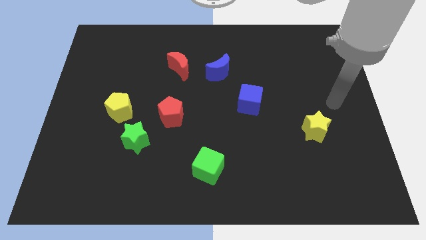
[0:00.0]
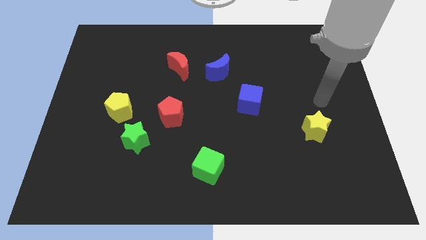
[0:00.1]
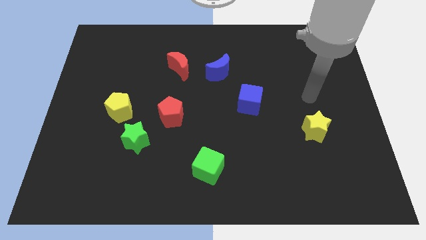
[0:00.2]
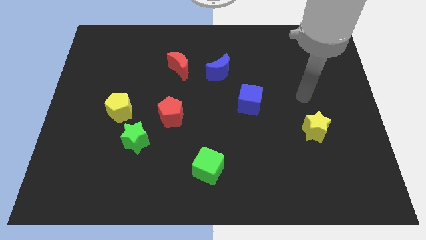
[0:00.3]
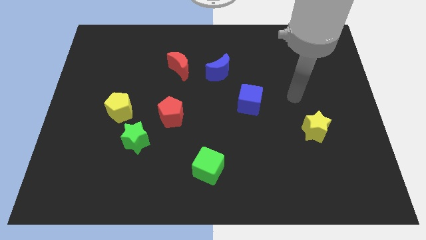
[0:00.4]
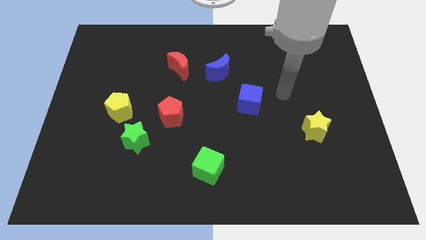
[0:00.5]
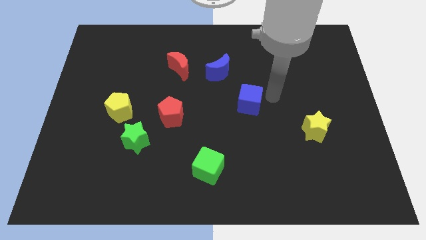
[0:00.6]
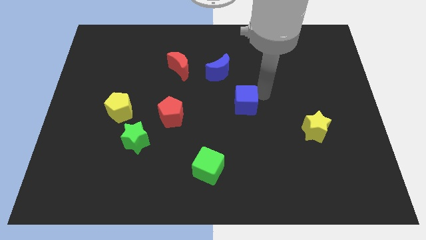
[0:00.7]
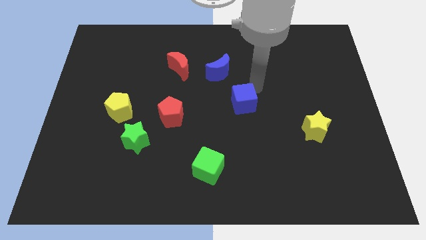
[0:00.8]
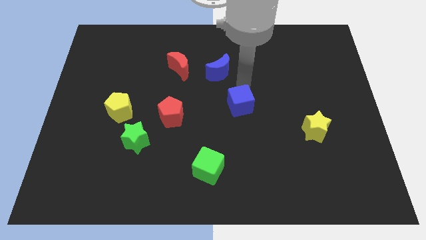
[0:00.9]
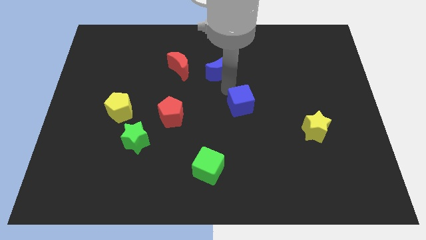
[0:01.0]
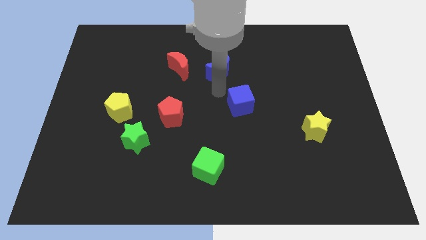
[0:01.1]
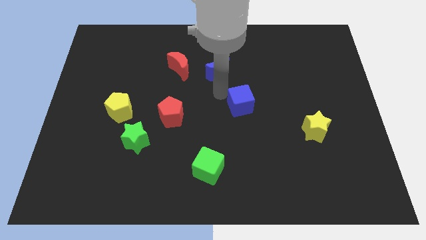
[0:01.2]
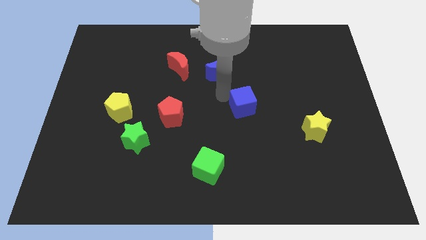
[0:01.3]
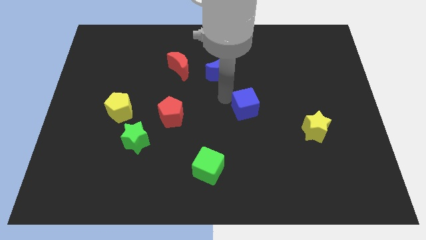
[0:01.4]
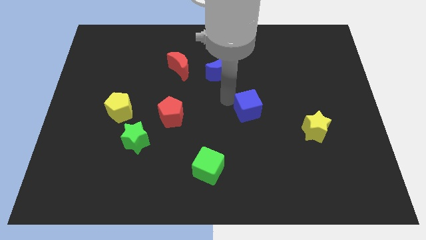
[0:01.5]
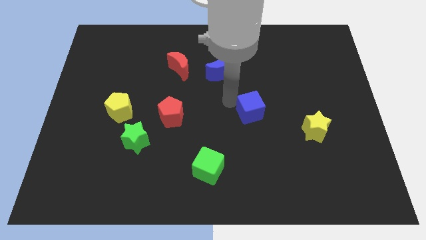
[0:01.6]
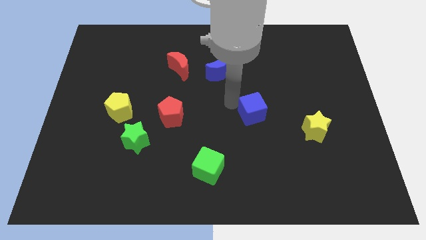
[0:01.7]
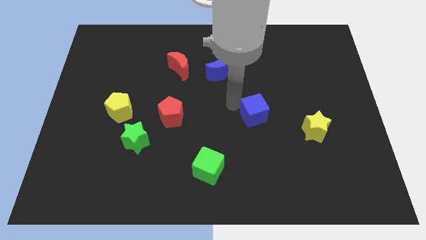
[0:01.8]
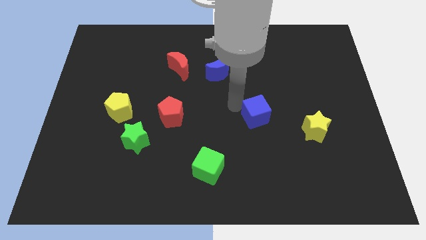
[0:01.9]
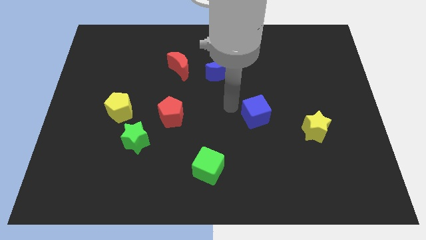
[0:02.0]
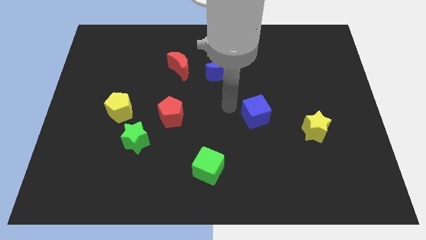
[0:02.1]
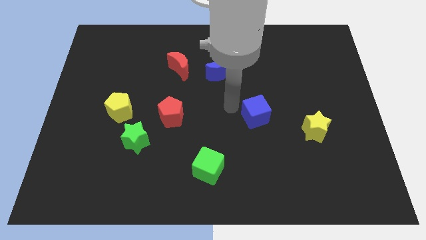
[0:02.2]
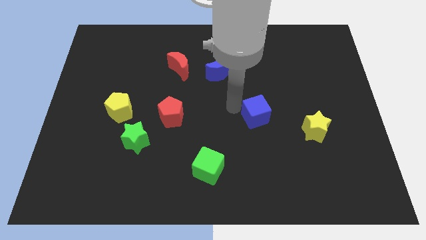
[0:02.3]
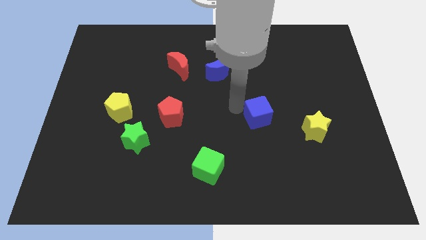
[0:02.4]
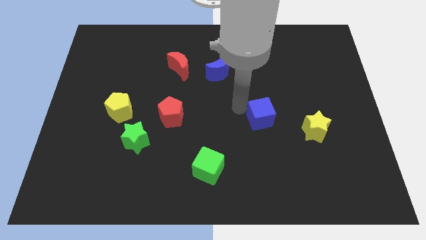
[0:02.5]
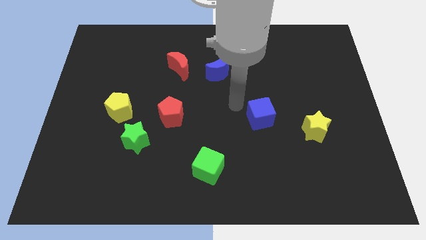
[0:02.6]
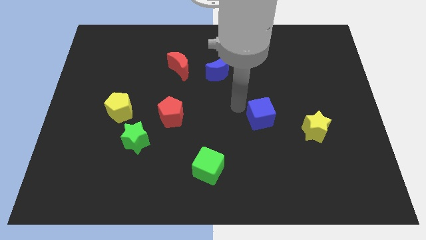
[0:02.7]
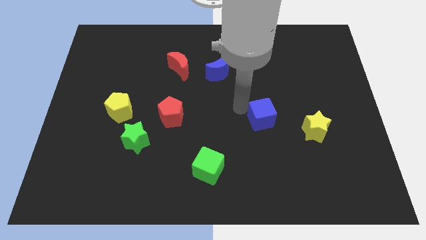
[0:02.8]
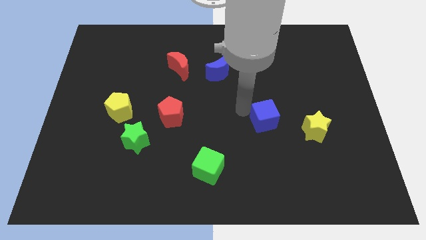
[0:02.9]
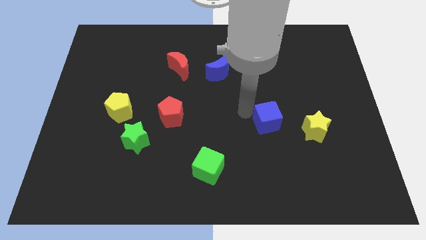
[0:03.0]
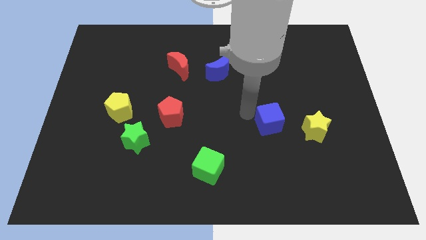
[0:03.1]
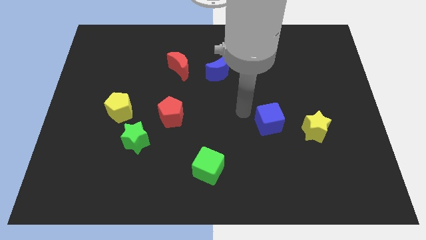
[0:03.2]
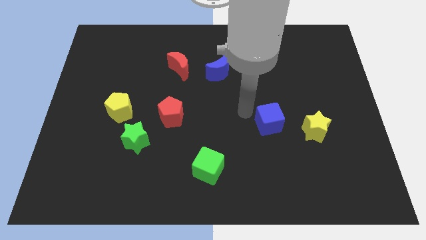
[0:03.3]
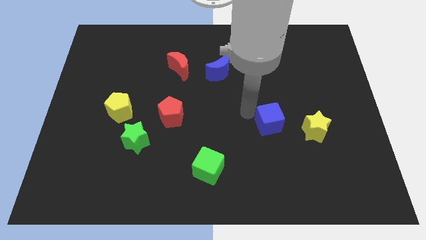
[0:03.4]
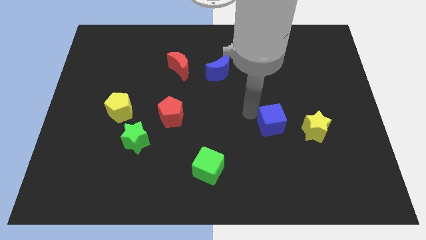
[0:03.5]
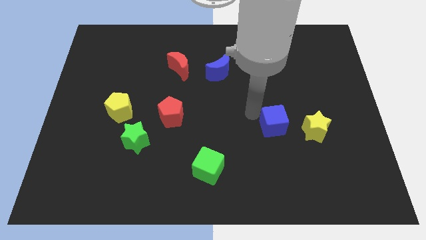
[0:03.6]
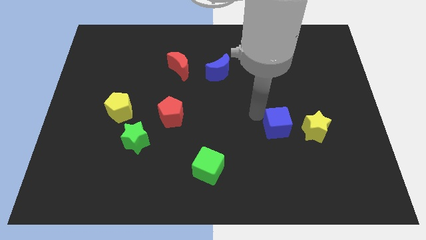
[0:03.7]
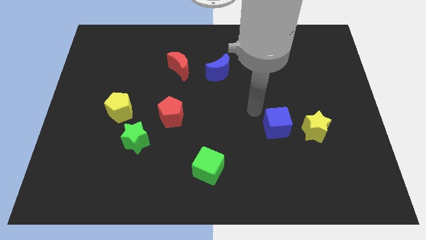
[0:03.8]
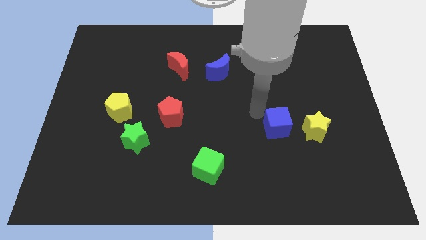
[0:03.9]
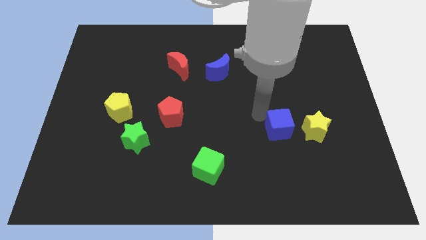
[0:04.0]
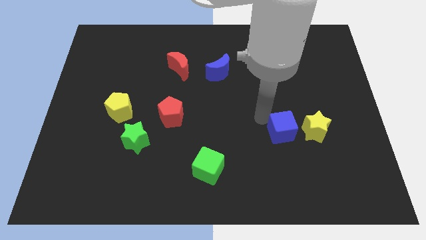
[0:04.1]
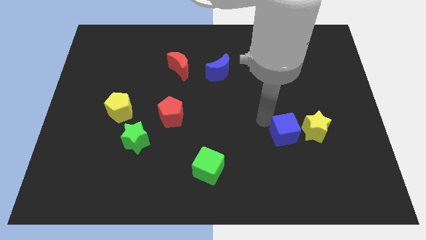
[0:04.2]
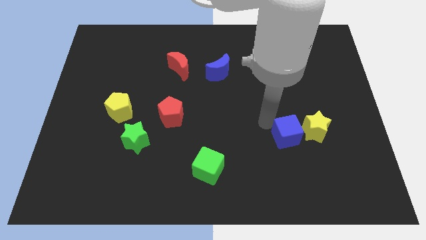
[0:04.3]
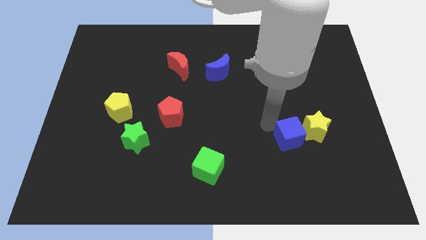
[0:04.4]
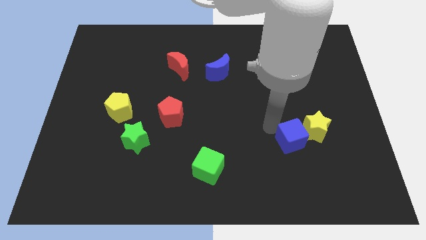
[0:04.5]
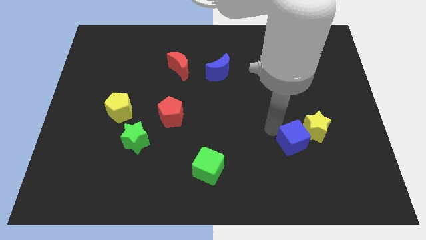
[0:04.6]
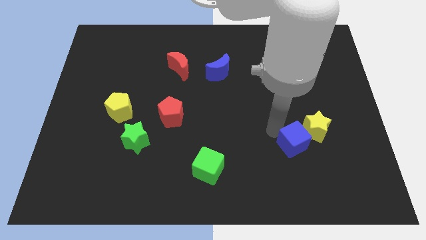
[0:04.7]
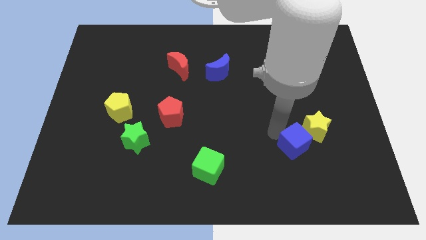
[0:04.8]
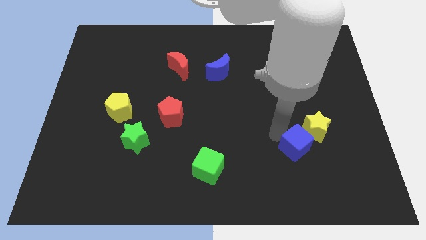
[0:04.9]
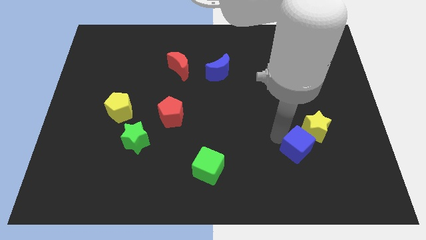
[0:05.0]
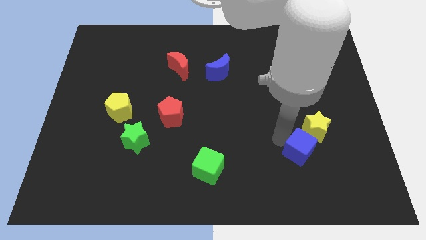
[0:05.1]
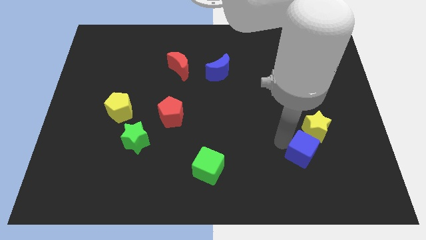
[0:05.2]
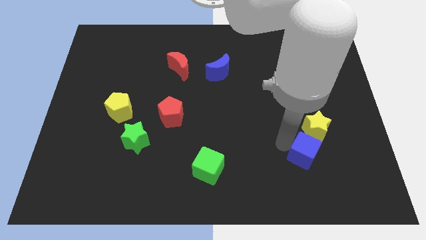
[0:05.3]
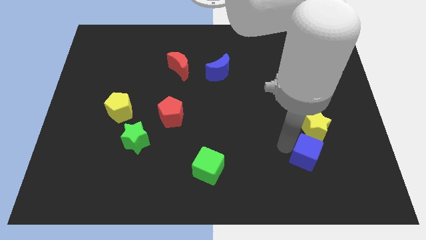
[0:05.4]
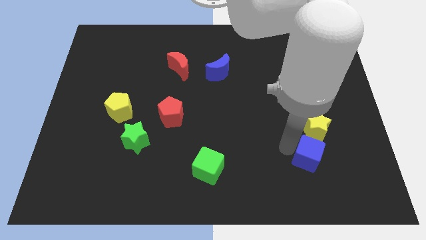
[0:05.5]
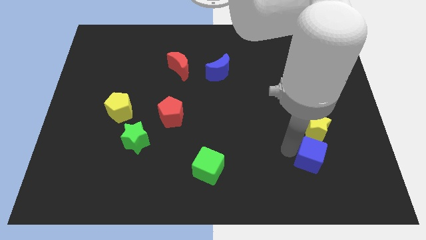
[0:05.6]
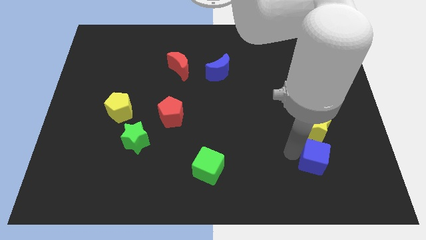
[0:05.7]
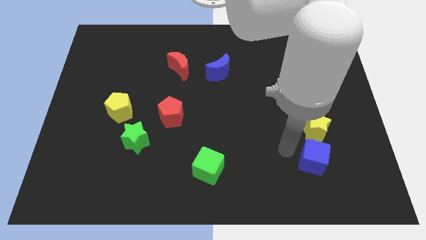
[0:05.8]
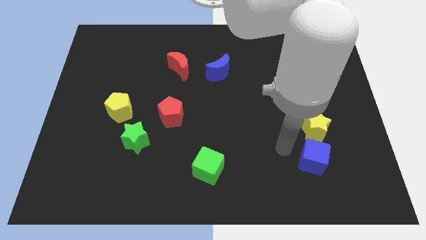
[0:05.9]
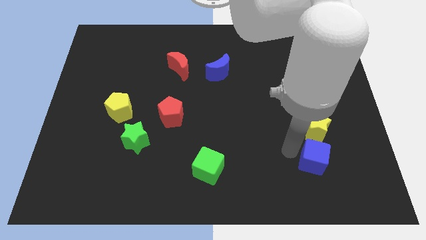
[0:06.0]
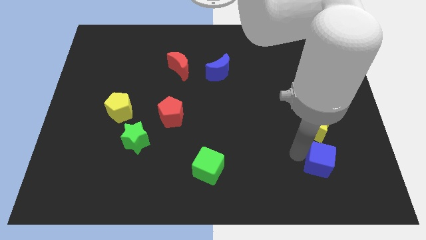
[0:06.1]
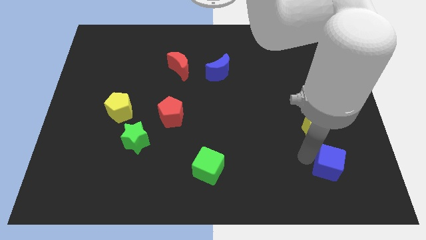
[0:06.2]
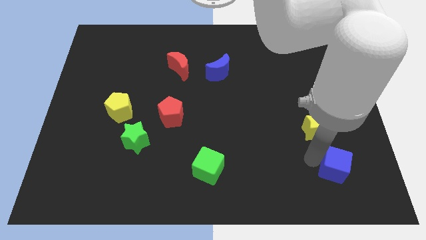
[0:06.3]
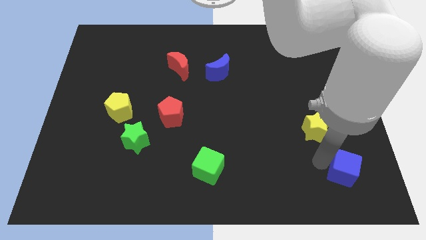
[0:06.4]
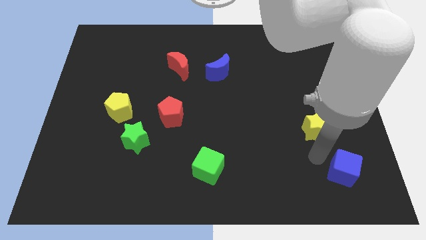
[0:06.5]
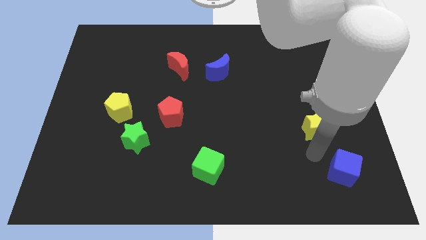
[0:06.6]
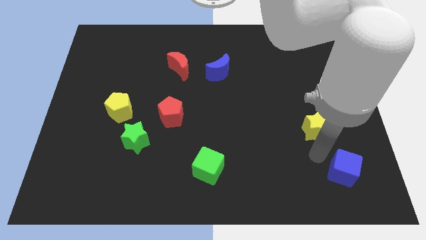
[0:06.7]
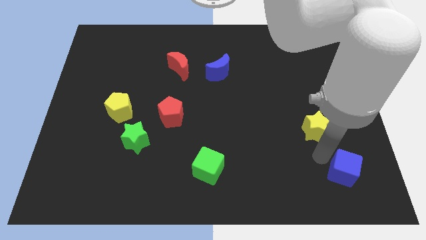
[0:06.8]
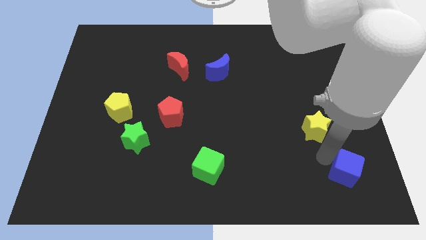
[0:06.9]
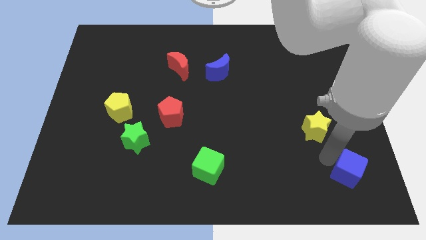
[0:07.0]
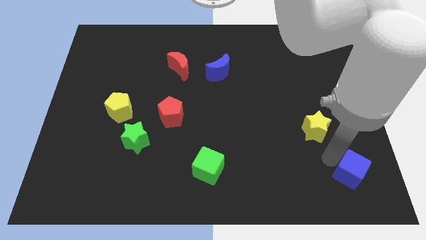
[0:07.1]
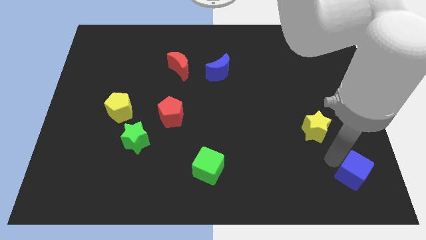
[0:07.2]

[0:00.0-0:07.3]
move the blue cube to the bottom right corner
